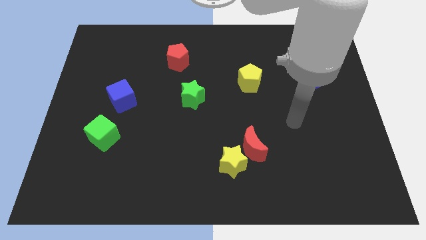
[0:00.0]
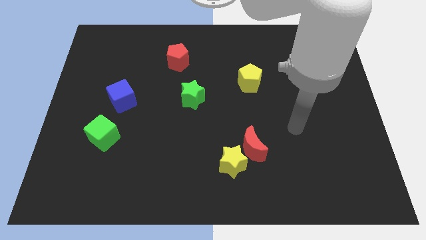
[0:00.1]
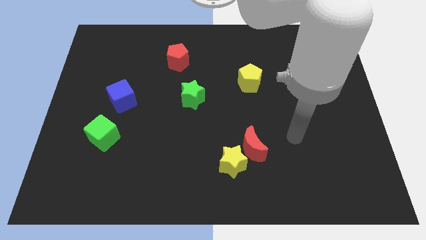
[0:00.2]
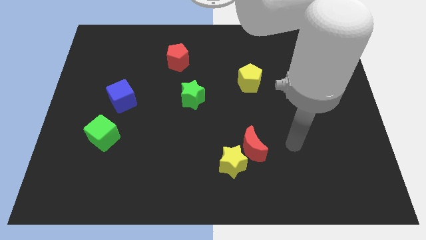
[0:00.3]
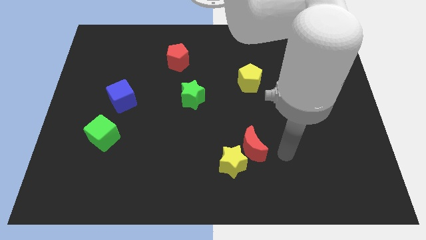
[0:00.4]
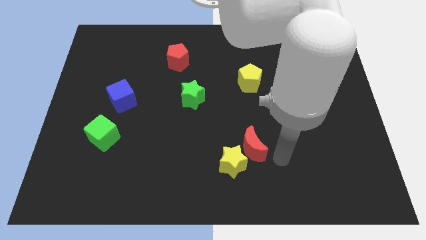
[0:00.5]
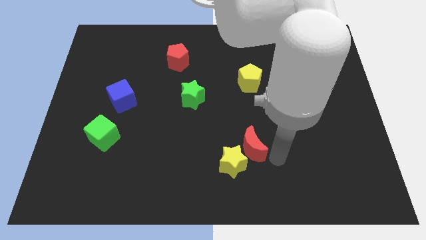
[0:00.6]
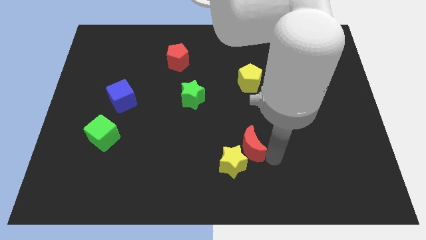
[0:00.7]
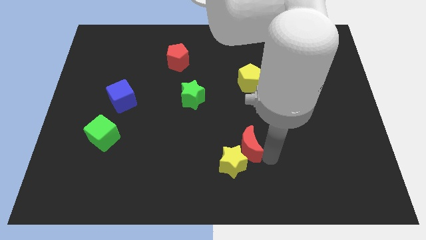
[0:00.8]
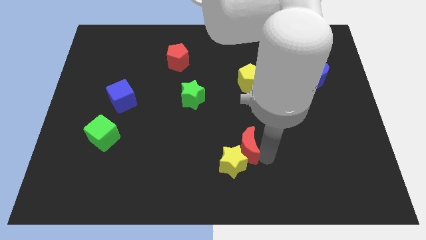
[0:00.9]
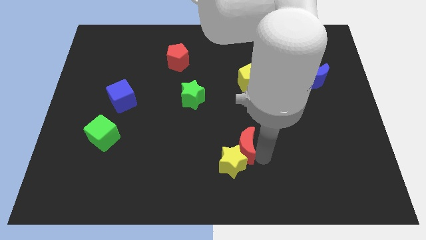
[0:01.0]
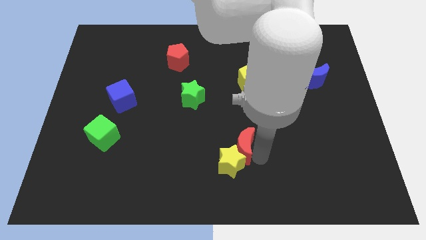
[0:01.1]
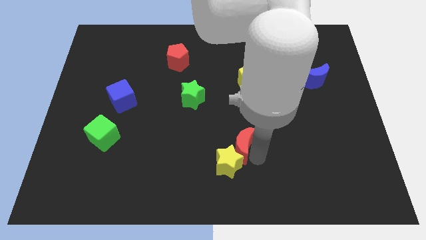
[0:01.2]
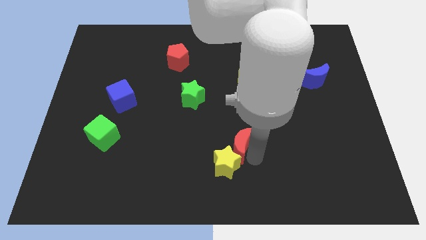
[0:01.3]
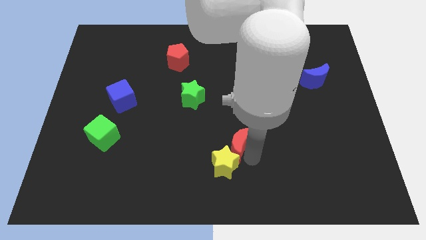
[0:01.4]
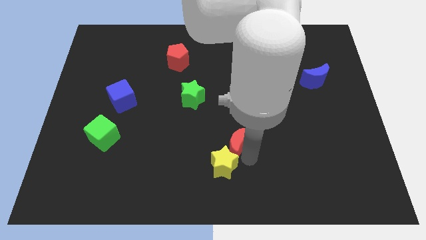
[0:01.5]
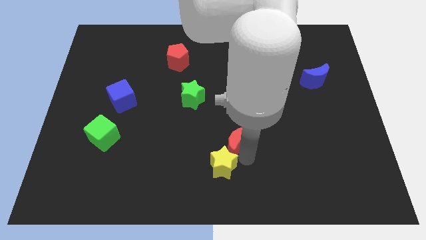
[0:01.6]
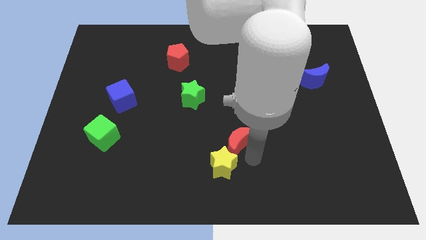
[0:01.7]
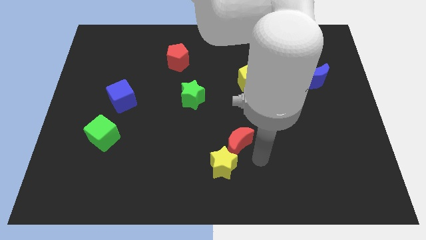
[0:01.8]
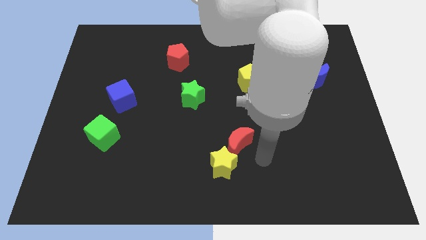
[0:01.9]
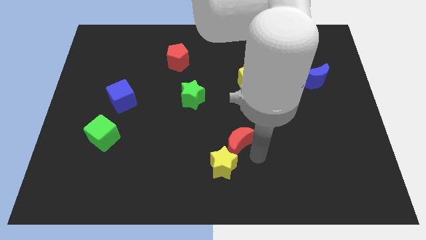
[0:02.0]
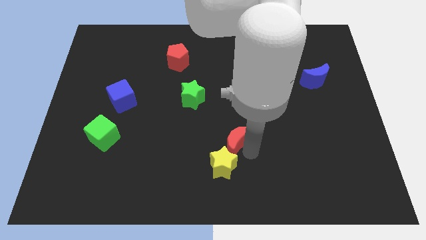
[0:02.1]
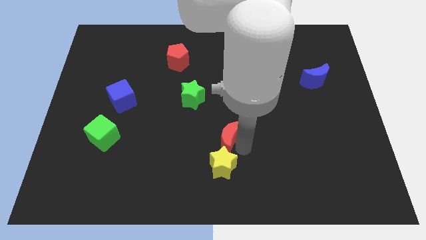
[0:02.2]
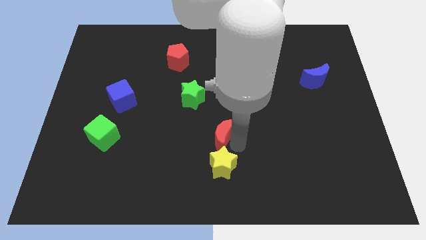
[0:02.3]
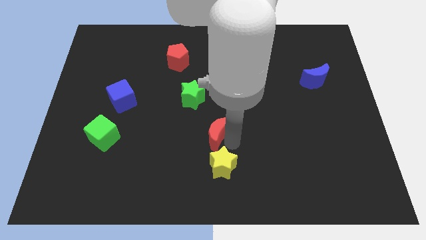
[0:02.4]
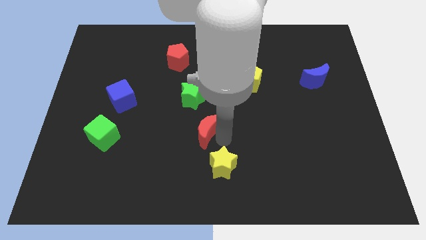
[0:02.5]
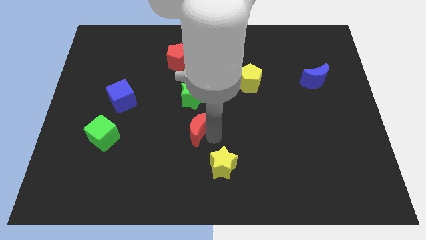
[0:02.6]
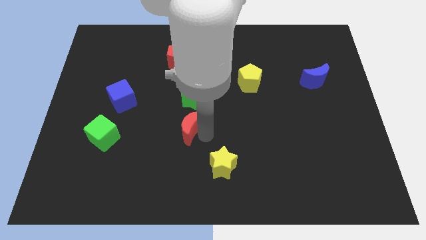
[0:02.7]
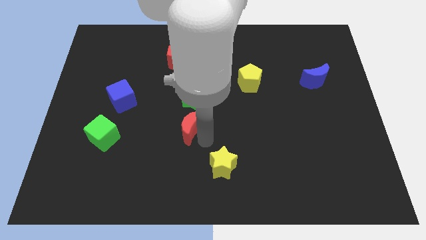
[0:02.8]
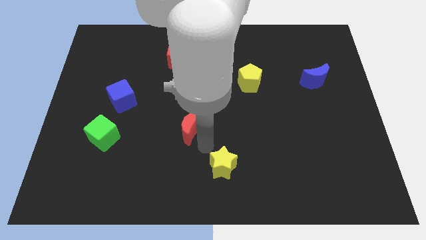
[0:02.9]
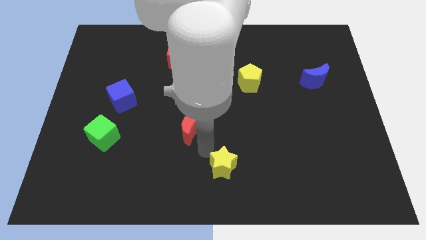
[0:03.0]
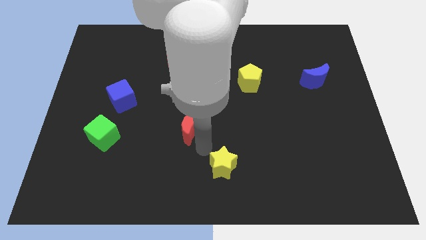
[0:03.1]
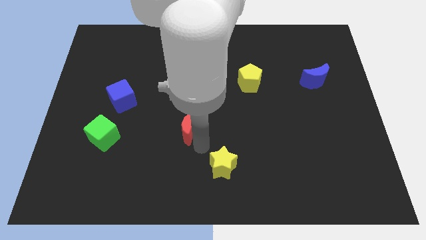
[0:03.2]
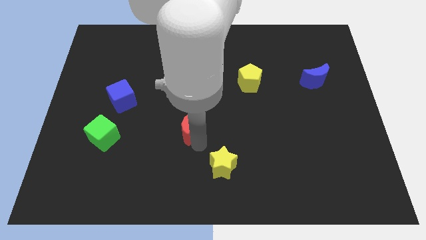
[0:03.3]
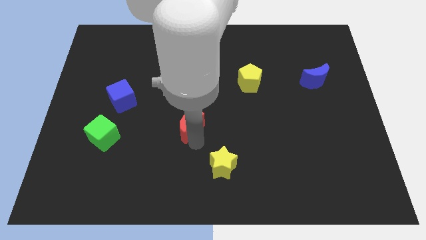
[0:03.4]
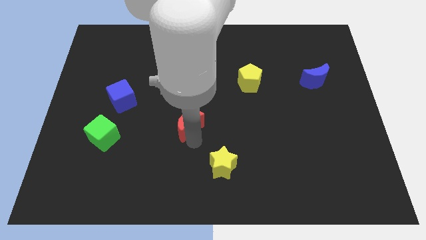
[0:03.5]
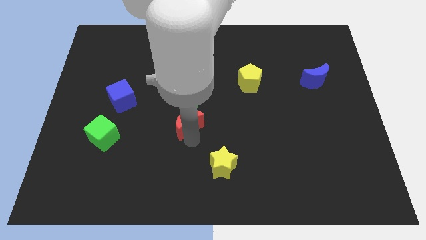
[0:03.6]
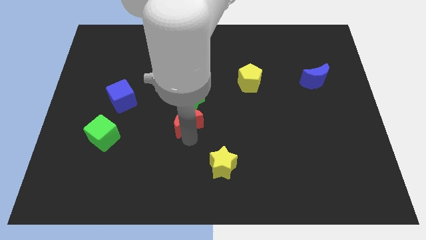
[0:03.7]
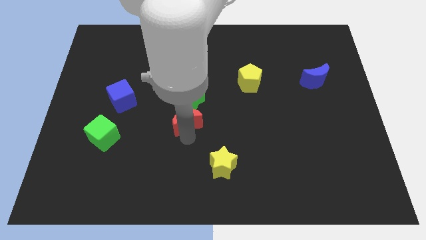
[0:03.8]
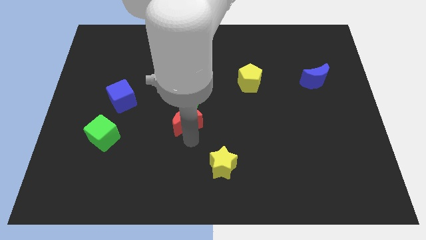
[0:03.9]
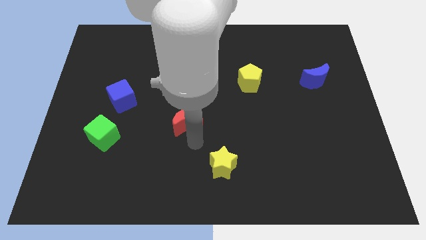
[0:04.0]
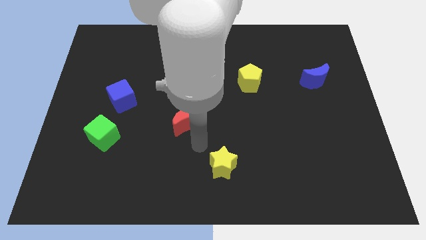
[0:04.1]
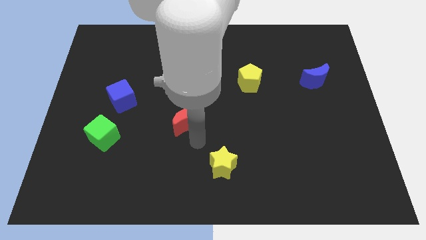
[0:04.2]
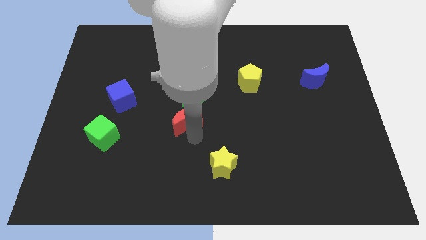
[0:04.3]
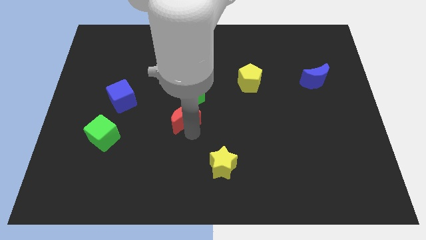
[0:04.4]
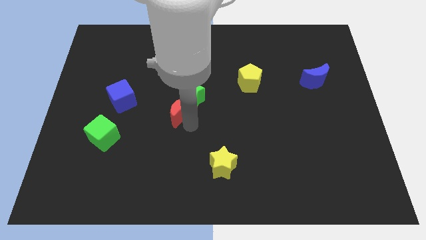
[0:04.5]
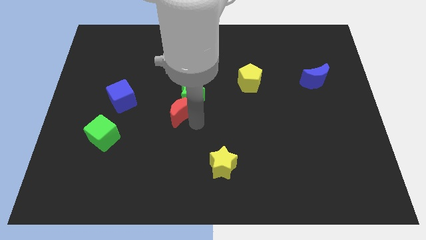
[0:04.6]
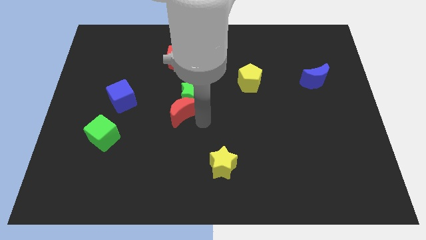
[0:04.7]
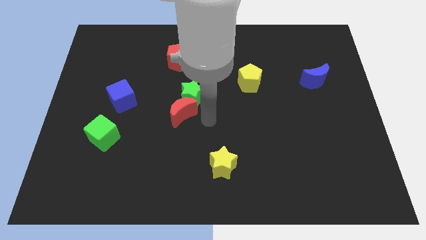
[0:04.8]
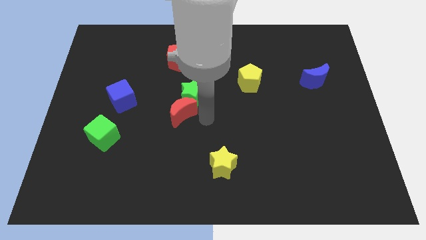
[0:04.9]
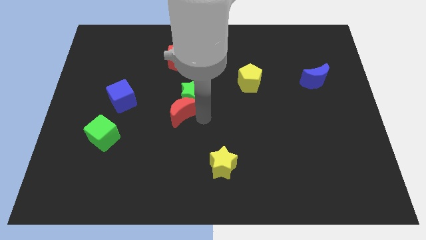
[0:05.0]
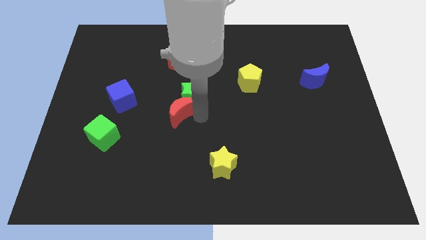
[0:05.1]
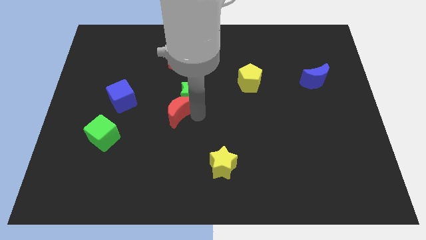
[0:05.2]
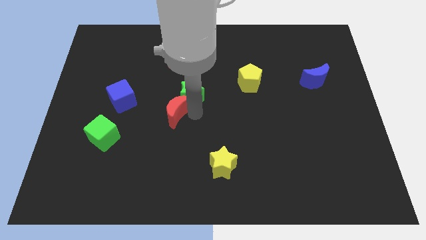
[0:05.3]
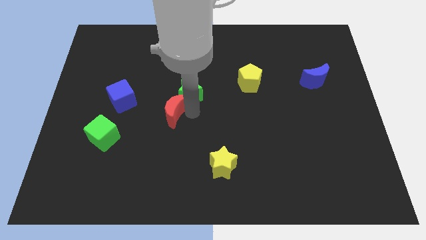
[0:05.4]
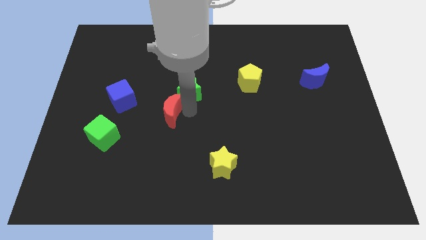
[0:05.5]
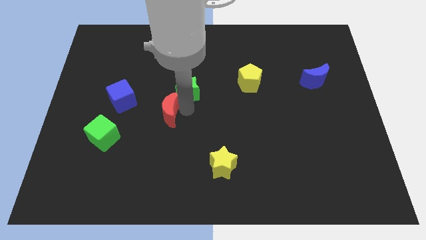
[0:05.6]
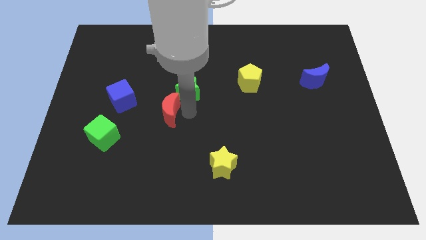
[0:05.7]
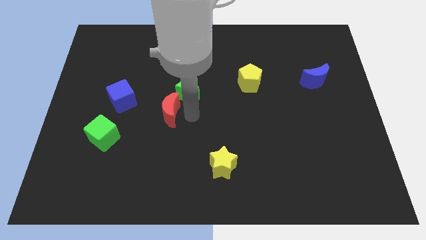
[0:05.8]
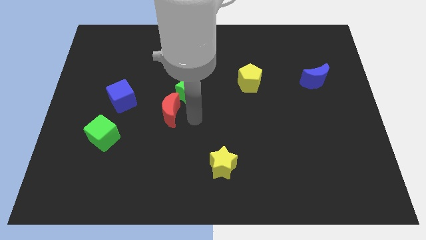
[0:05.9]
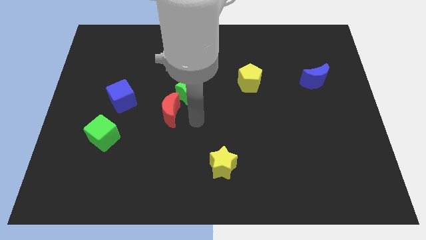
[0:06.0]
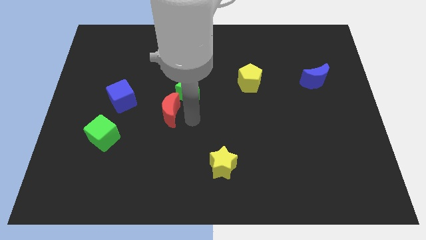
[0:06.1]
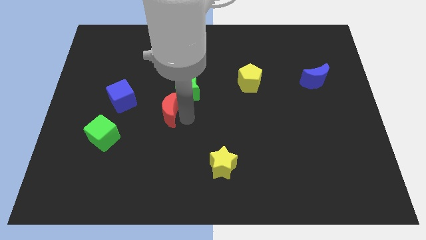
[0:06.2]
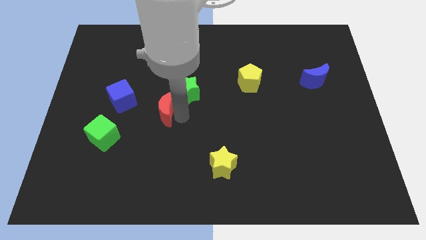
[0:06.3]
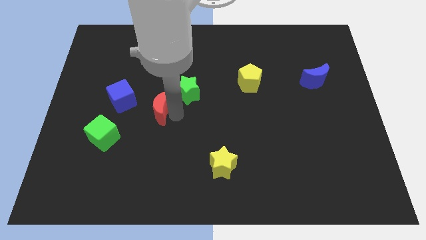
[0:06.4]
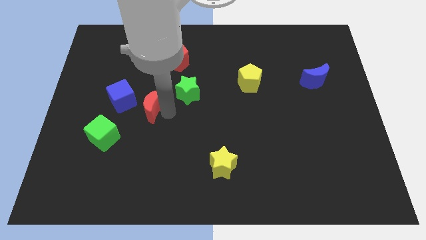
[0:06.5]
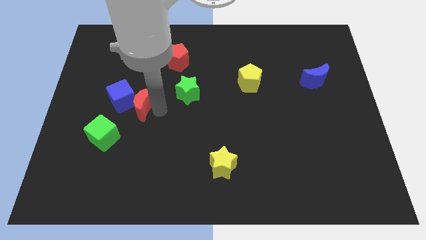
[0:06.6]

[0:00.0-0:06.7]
move the red moon close to the blue cube

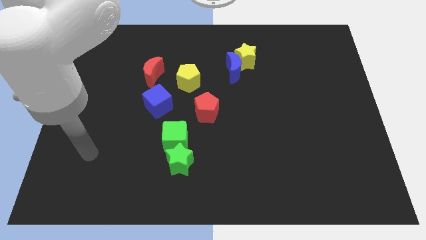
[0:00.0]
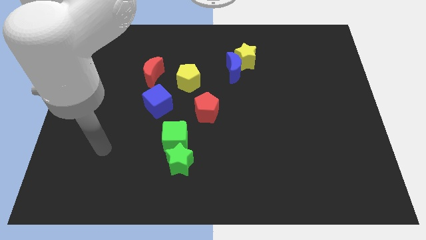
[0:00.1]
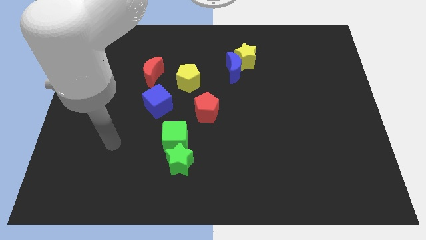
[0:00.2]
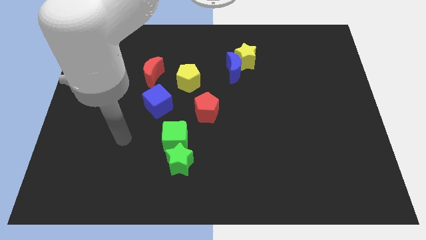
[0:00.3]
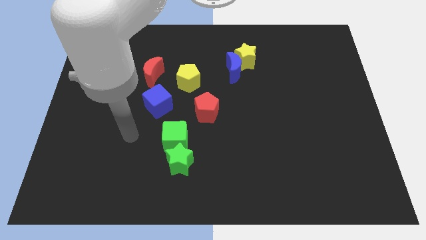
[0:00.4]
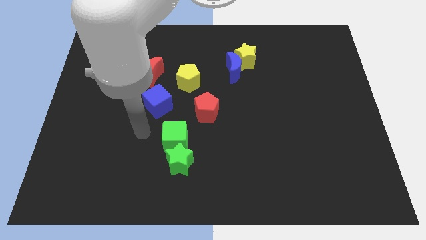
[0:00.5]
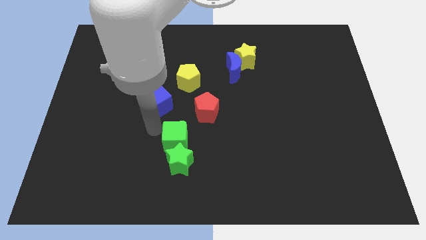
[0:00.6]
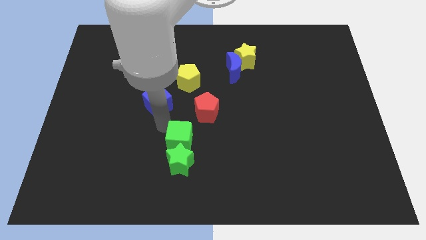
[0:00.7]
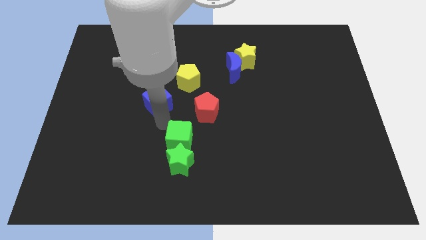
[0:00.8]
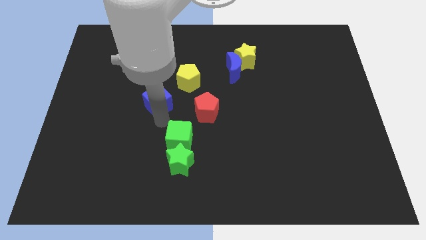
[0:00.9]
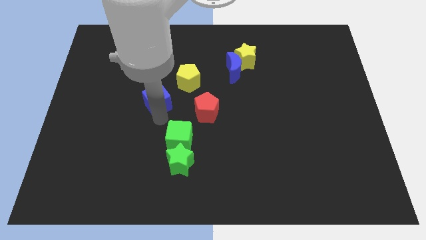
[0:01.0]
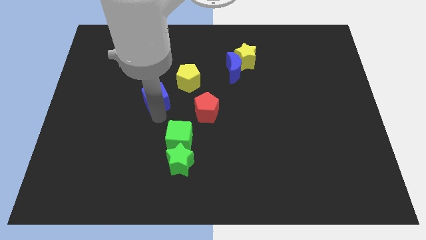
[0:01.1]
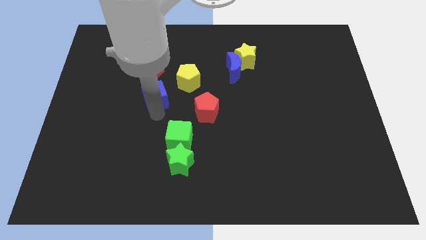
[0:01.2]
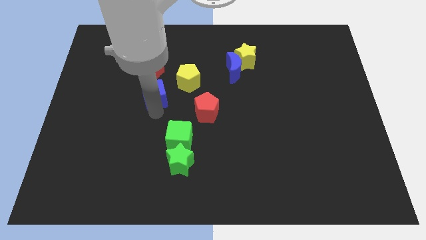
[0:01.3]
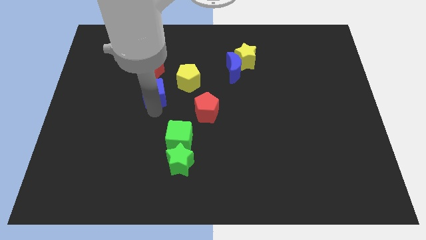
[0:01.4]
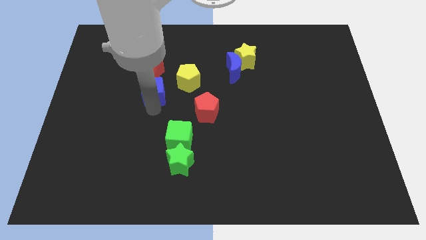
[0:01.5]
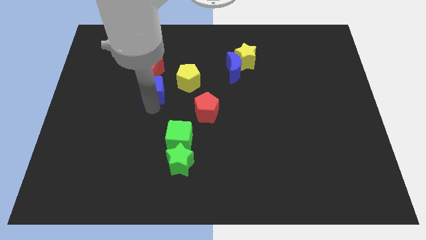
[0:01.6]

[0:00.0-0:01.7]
put the blue cube towards the red moon
